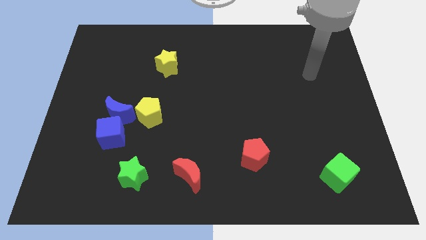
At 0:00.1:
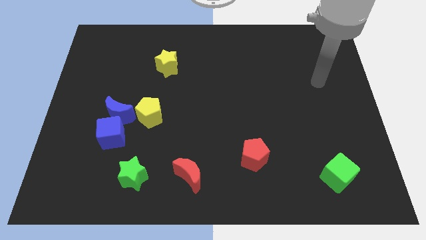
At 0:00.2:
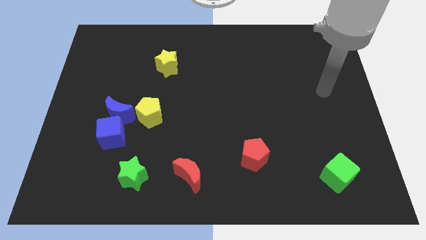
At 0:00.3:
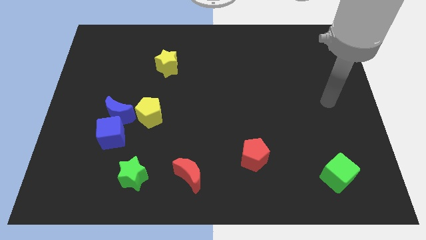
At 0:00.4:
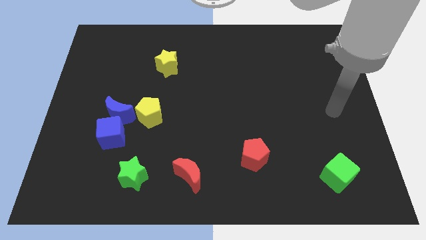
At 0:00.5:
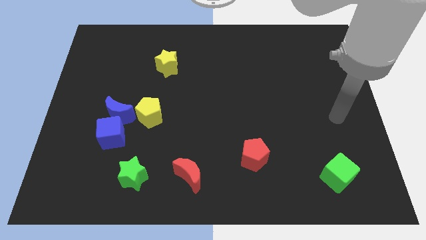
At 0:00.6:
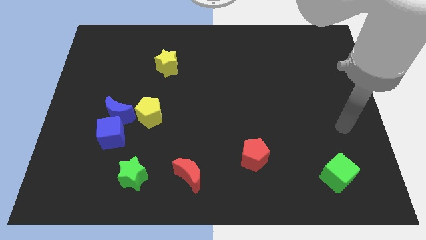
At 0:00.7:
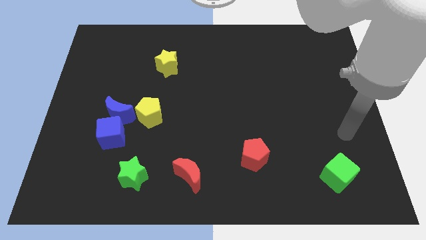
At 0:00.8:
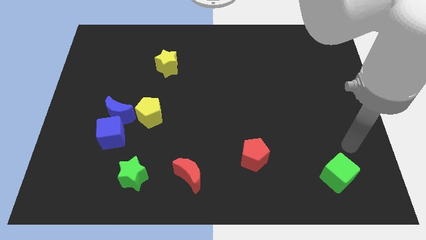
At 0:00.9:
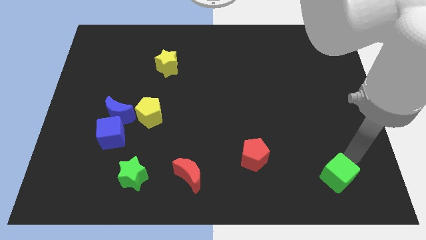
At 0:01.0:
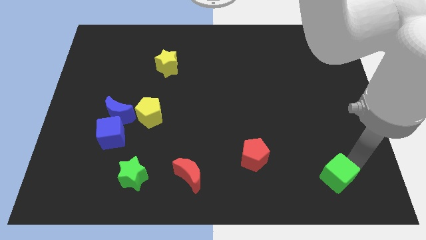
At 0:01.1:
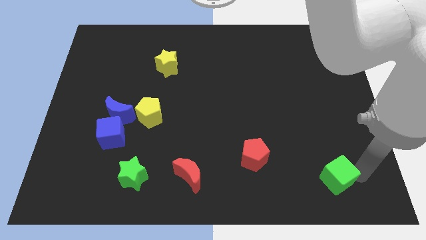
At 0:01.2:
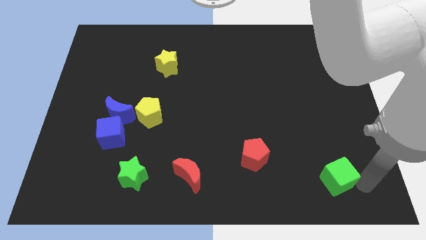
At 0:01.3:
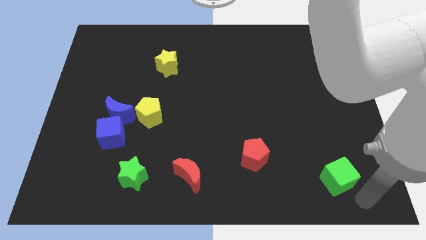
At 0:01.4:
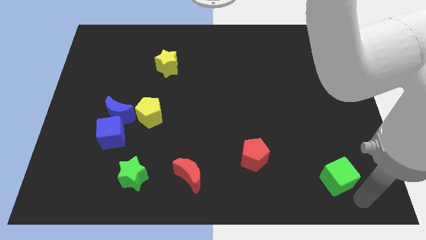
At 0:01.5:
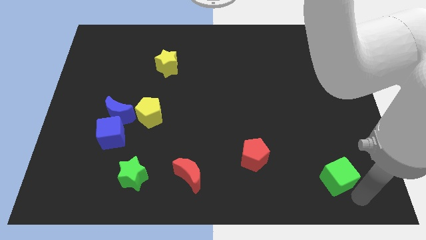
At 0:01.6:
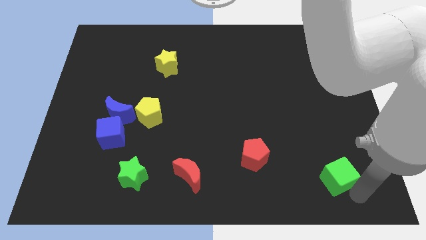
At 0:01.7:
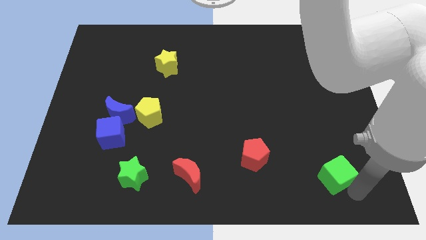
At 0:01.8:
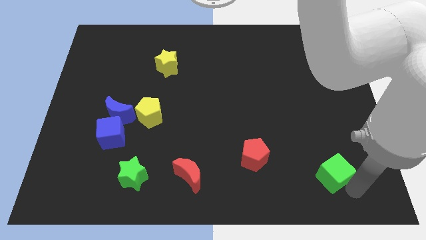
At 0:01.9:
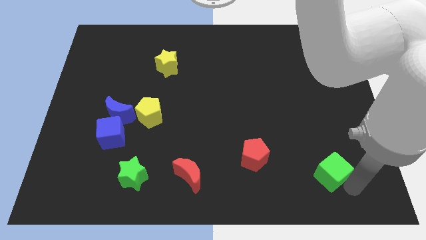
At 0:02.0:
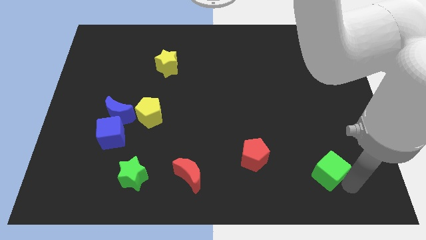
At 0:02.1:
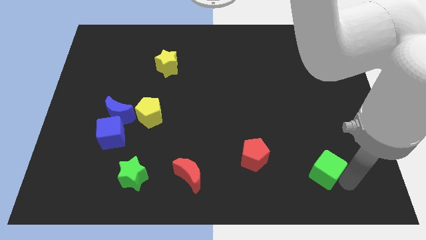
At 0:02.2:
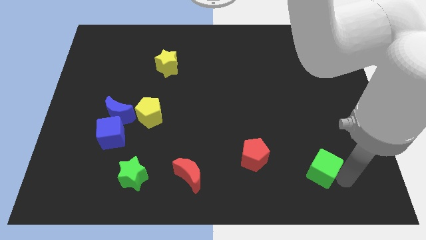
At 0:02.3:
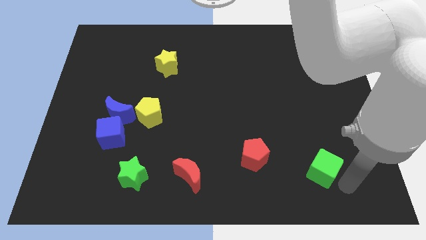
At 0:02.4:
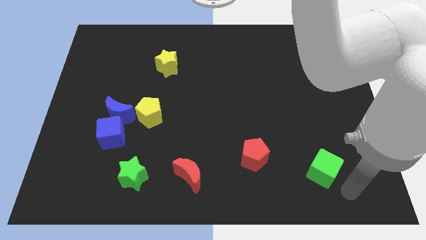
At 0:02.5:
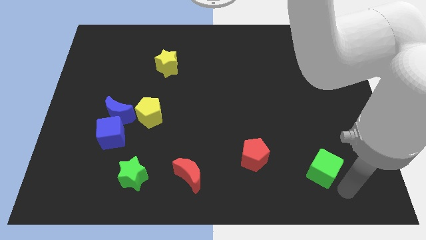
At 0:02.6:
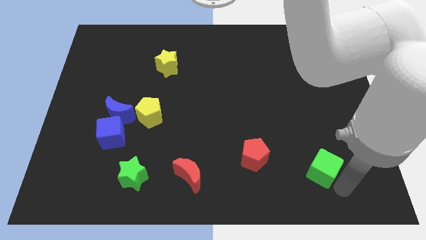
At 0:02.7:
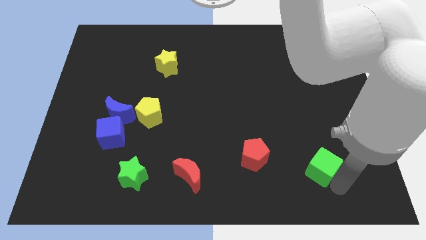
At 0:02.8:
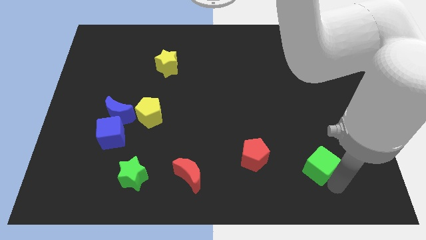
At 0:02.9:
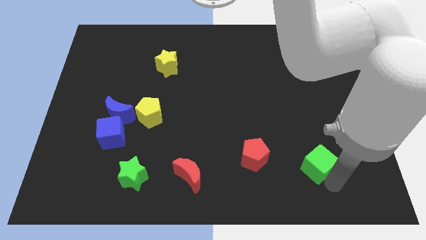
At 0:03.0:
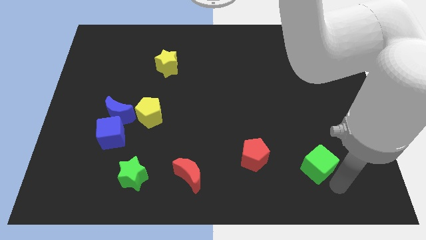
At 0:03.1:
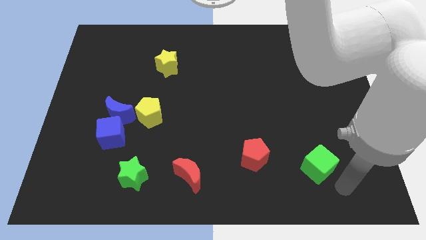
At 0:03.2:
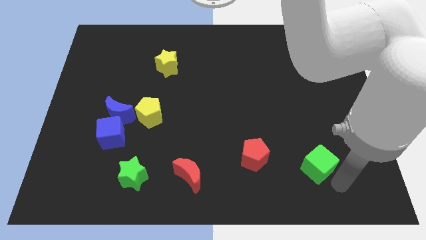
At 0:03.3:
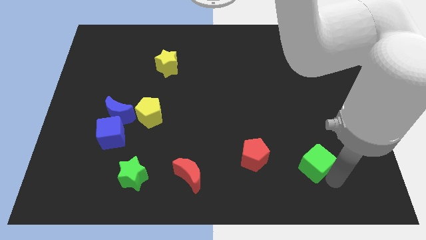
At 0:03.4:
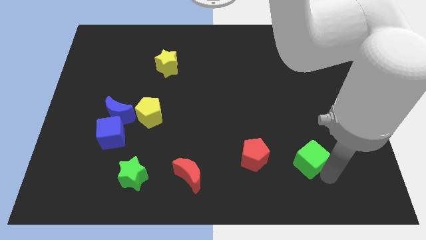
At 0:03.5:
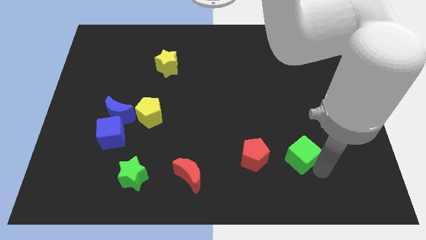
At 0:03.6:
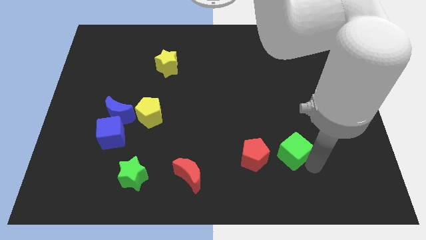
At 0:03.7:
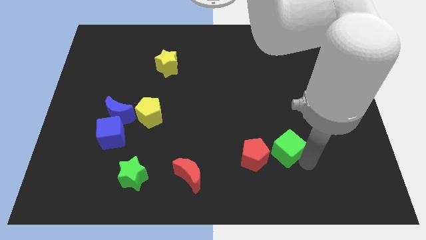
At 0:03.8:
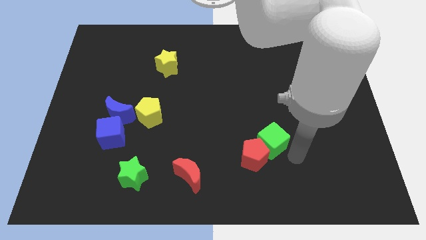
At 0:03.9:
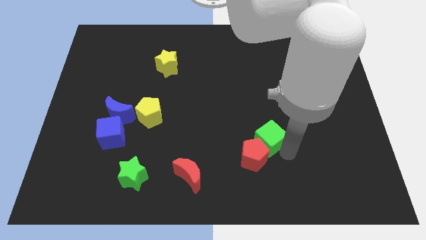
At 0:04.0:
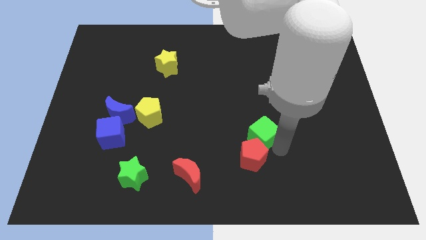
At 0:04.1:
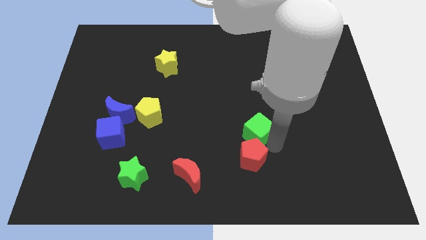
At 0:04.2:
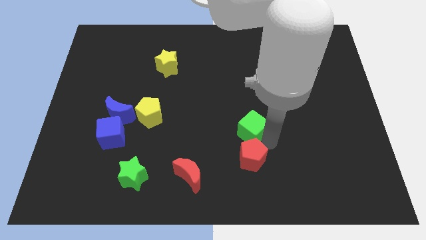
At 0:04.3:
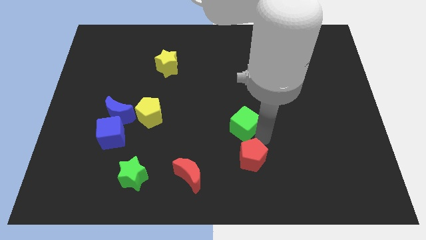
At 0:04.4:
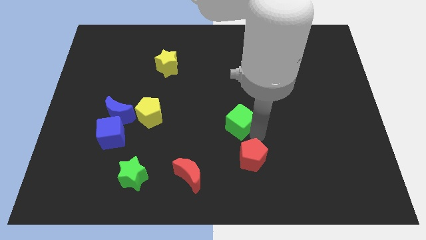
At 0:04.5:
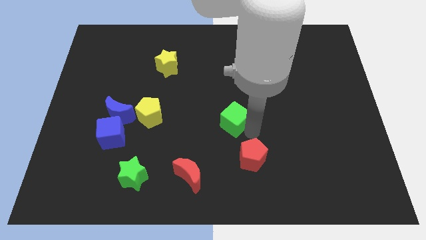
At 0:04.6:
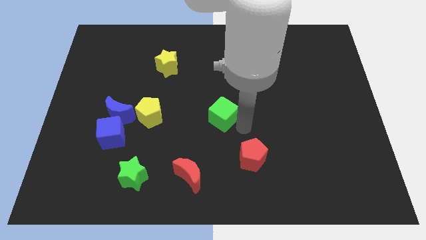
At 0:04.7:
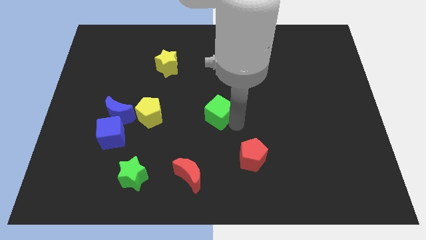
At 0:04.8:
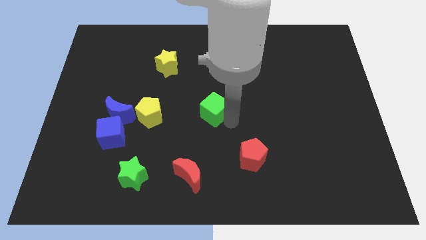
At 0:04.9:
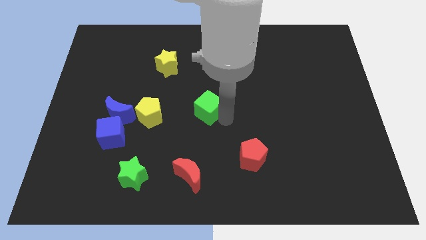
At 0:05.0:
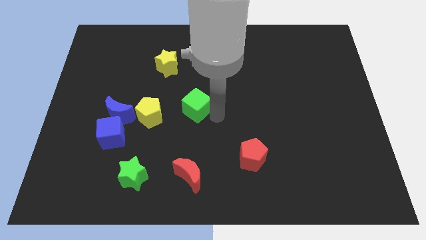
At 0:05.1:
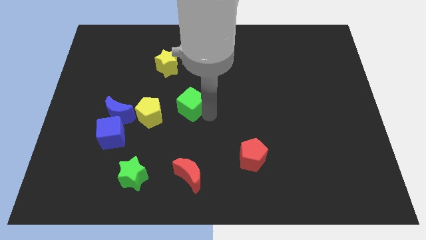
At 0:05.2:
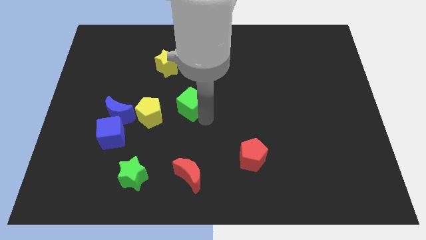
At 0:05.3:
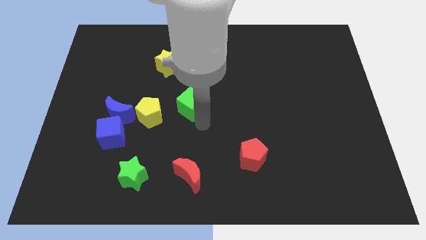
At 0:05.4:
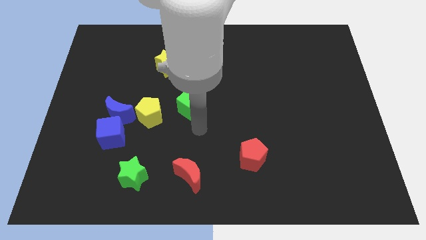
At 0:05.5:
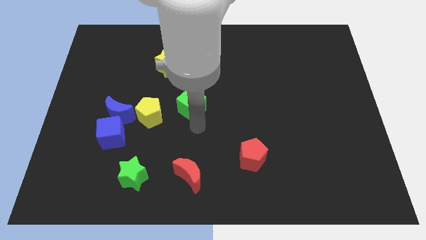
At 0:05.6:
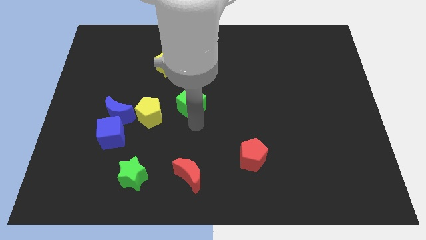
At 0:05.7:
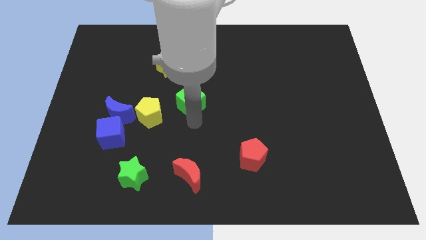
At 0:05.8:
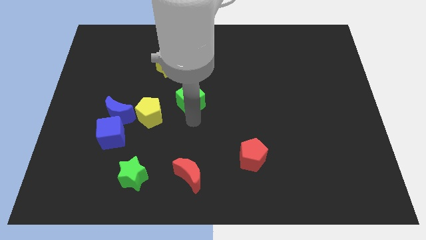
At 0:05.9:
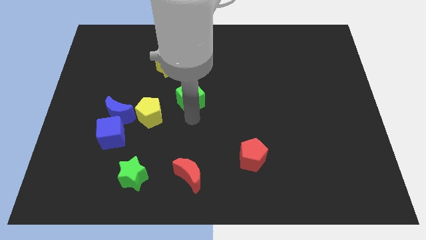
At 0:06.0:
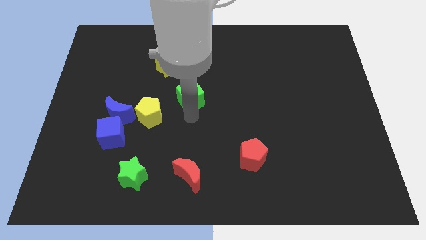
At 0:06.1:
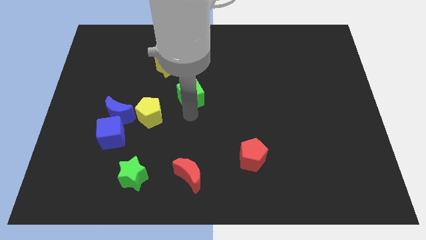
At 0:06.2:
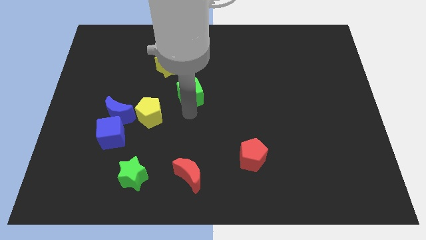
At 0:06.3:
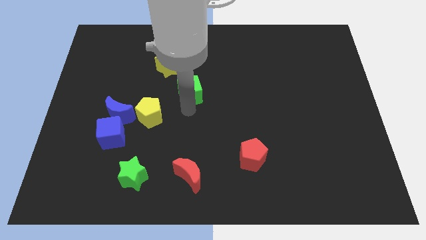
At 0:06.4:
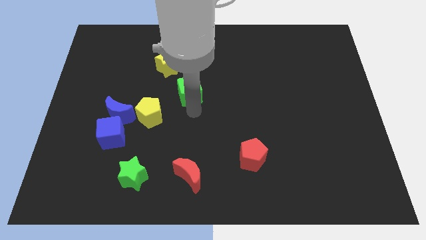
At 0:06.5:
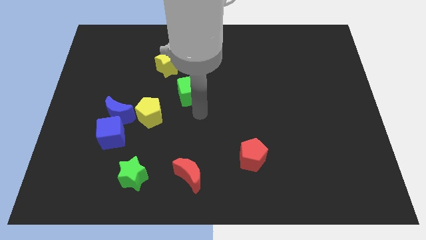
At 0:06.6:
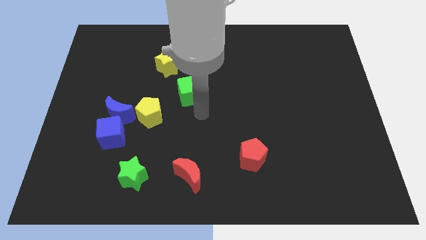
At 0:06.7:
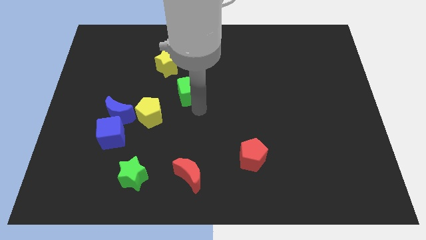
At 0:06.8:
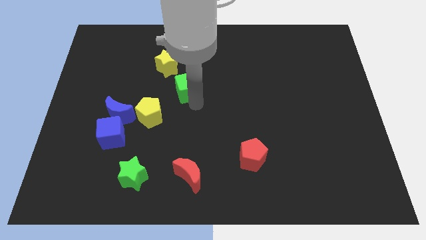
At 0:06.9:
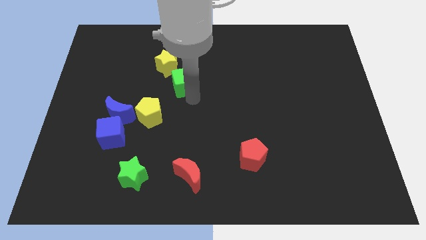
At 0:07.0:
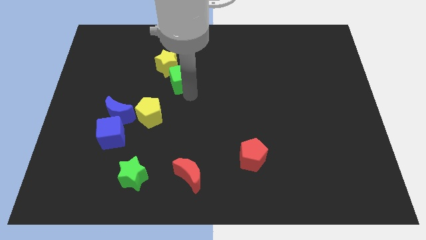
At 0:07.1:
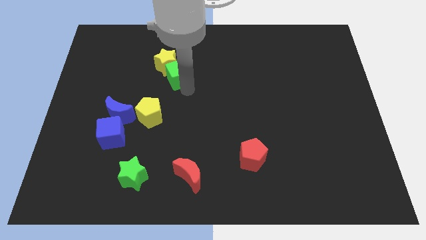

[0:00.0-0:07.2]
slide the green cube close to the yellow star

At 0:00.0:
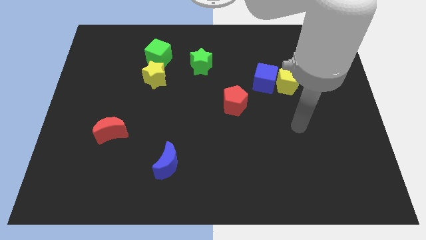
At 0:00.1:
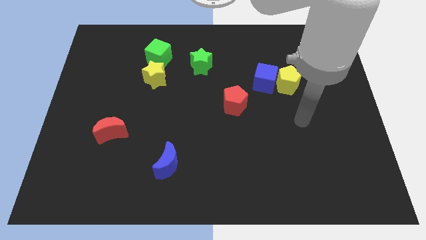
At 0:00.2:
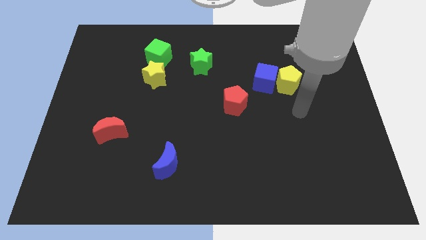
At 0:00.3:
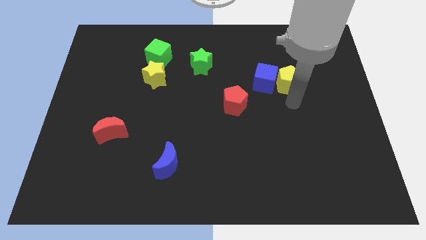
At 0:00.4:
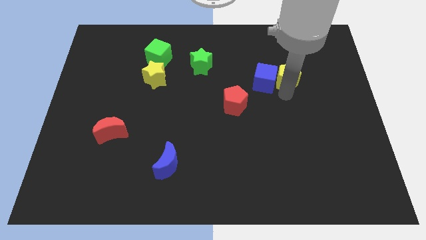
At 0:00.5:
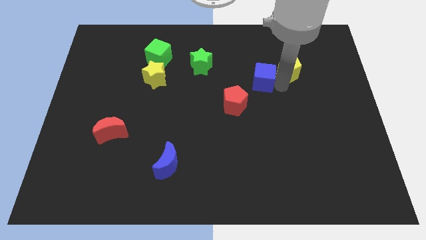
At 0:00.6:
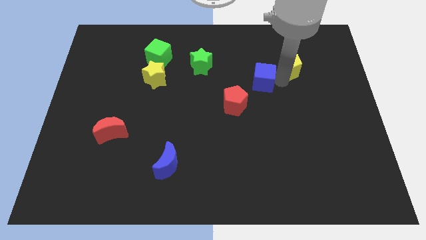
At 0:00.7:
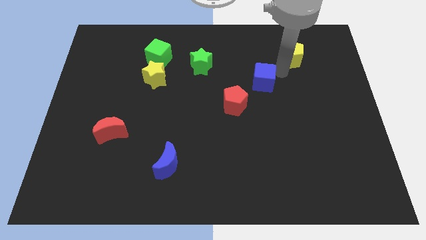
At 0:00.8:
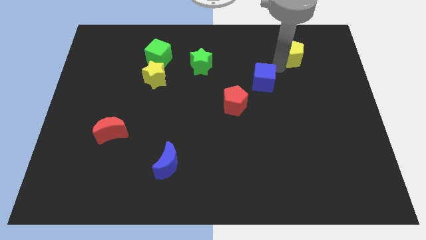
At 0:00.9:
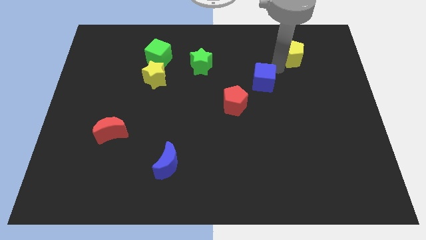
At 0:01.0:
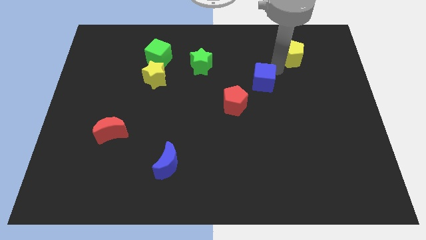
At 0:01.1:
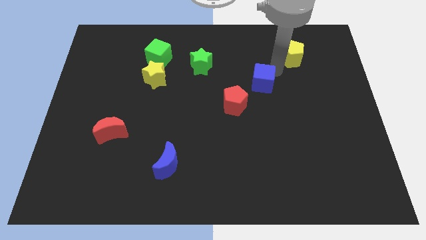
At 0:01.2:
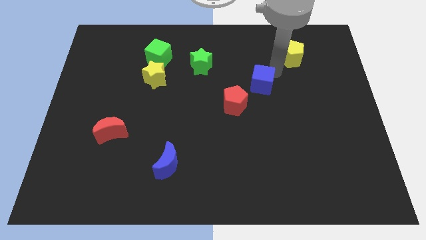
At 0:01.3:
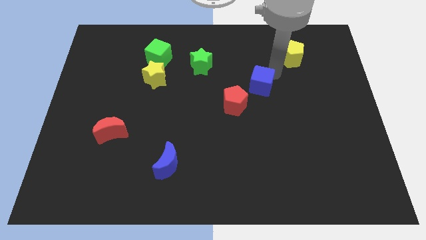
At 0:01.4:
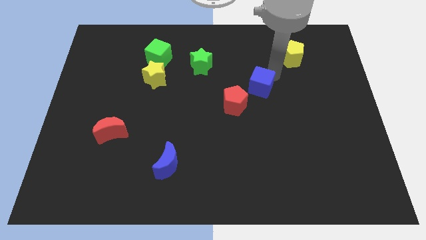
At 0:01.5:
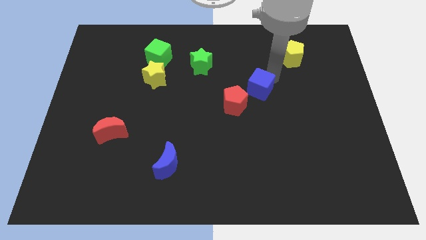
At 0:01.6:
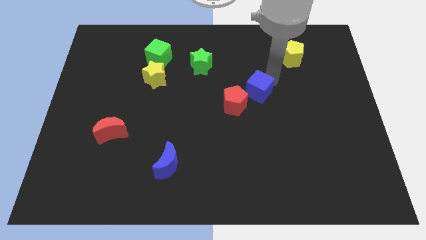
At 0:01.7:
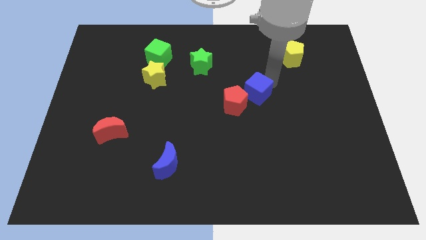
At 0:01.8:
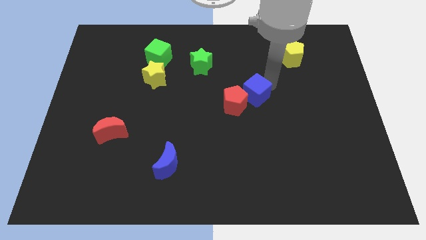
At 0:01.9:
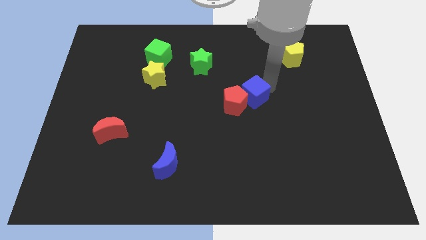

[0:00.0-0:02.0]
put the blue cube next to the red pentagon
